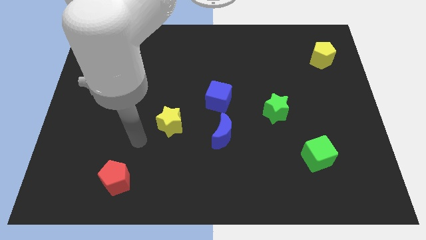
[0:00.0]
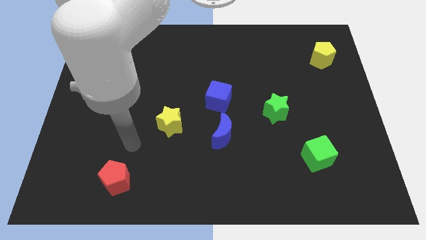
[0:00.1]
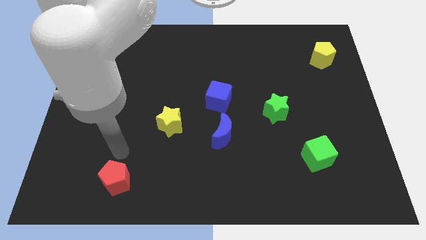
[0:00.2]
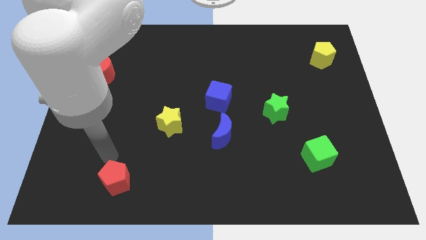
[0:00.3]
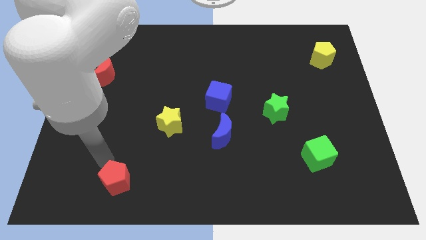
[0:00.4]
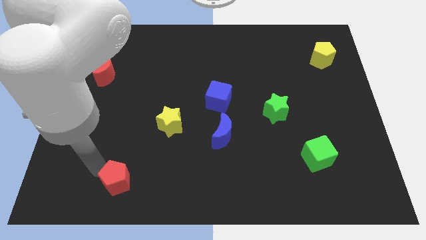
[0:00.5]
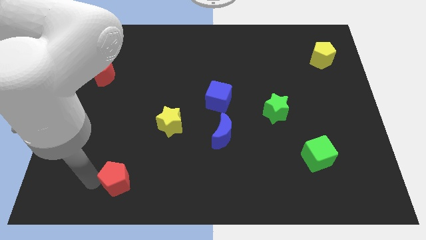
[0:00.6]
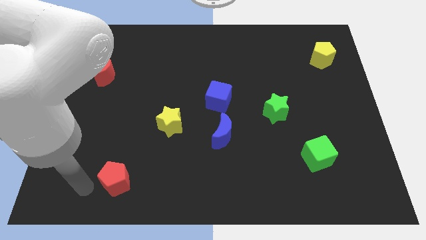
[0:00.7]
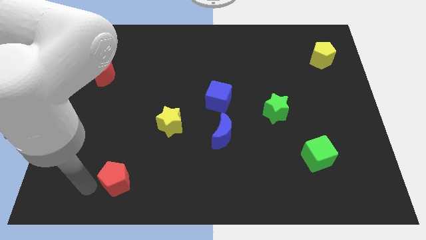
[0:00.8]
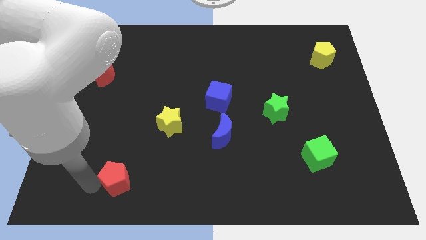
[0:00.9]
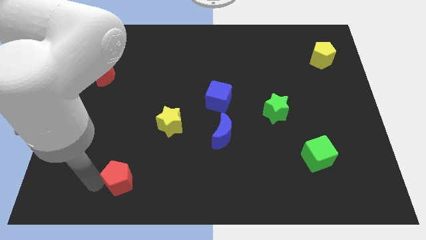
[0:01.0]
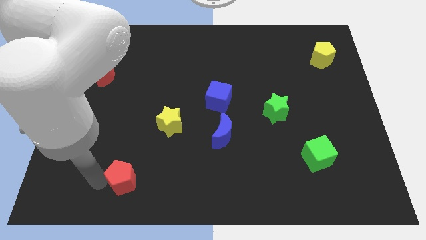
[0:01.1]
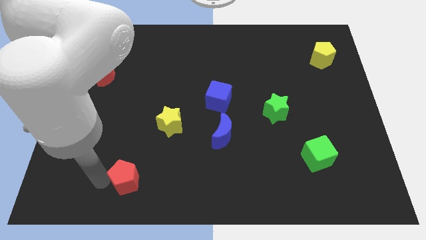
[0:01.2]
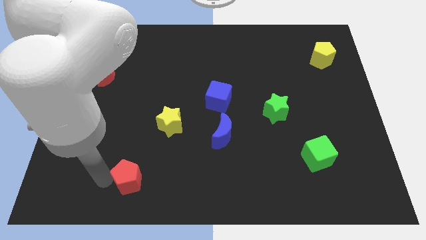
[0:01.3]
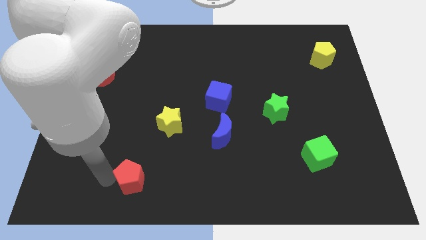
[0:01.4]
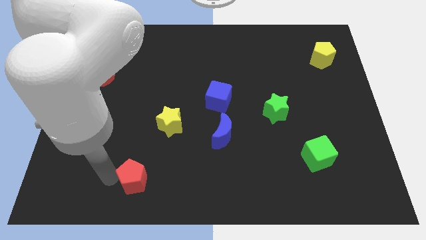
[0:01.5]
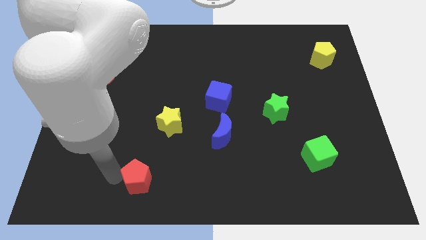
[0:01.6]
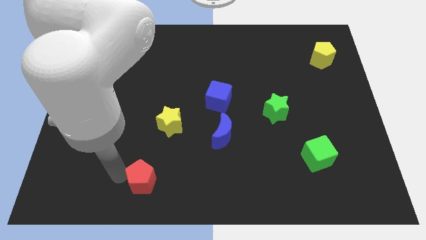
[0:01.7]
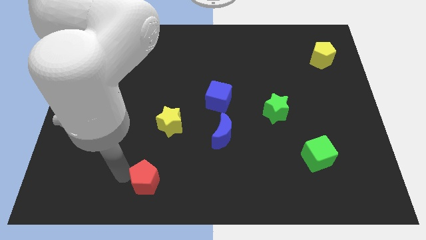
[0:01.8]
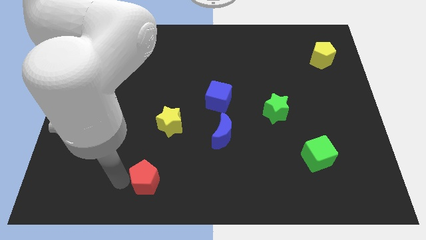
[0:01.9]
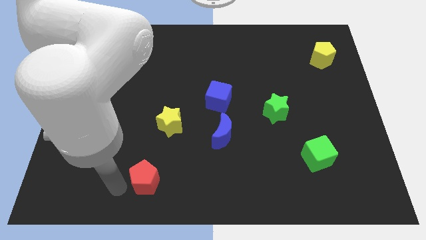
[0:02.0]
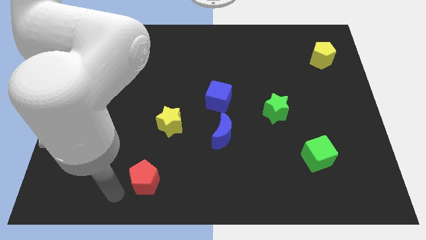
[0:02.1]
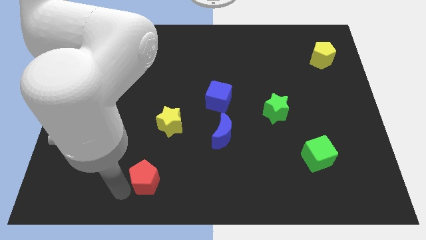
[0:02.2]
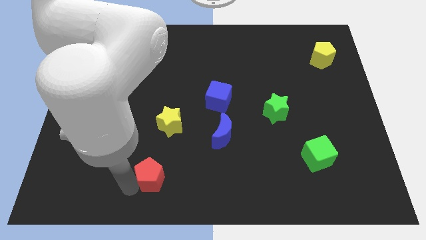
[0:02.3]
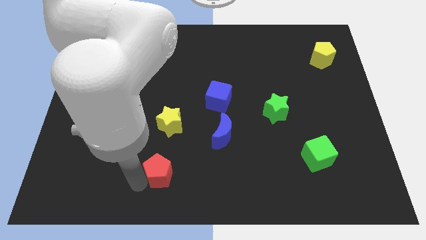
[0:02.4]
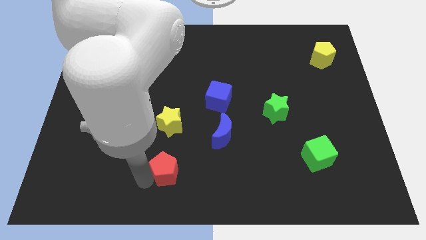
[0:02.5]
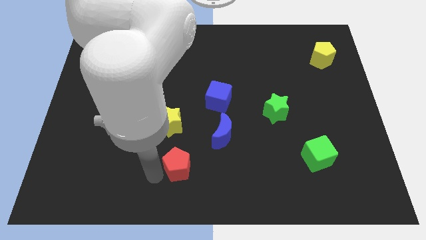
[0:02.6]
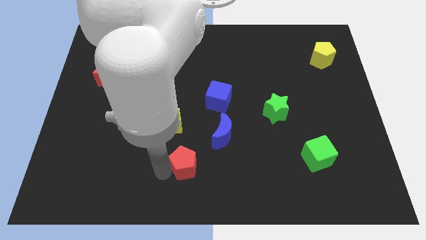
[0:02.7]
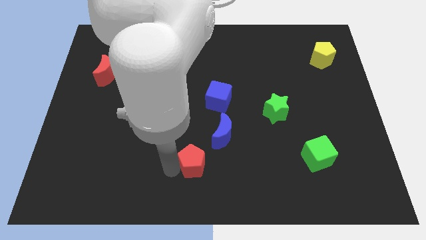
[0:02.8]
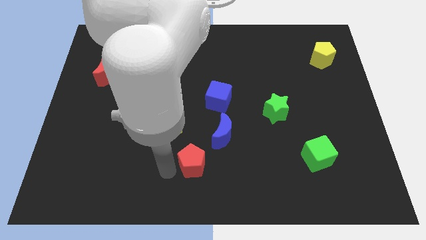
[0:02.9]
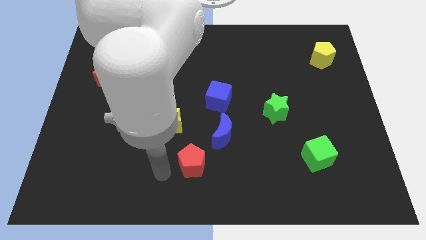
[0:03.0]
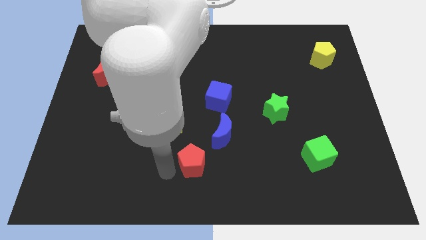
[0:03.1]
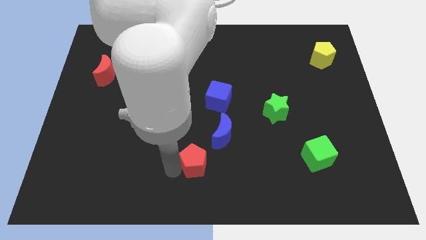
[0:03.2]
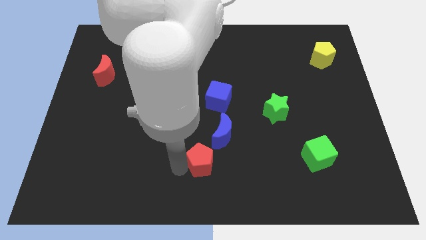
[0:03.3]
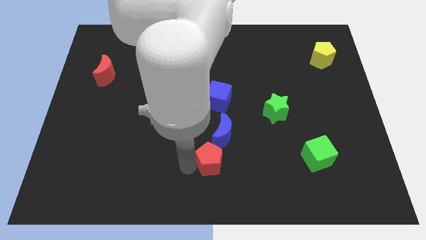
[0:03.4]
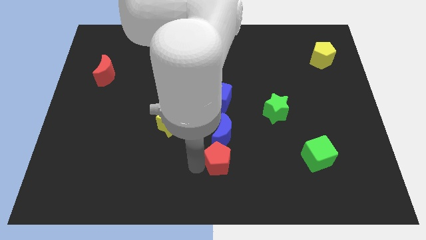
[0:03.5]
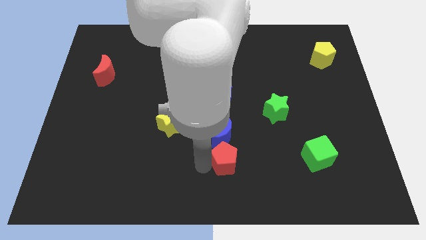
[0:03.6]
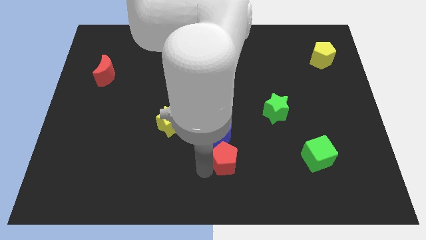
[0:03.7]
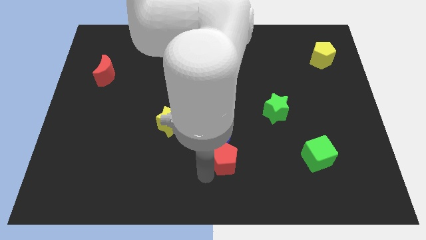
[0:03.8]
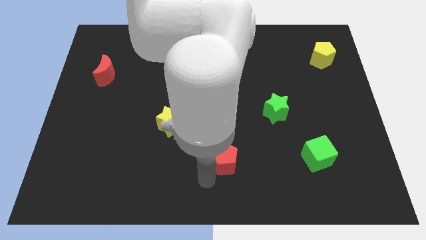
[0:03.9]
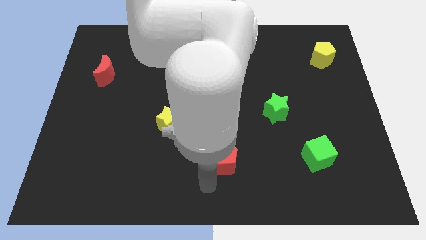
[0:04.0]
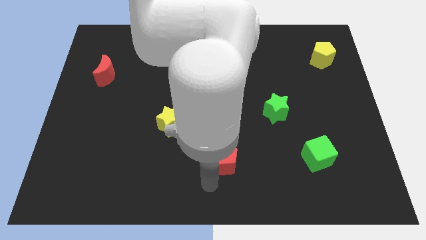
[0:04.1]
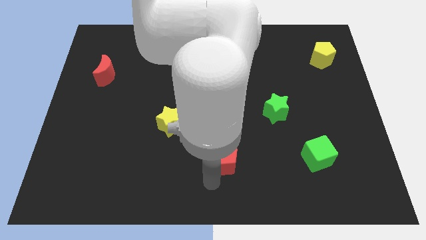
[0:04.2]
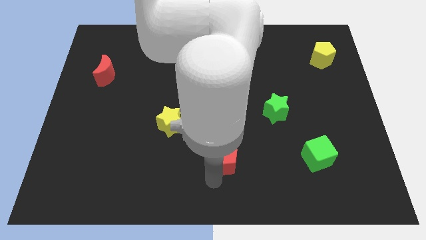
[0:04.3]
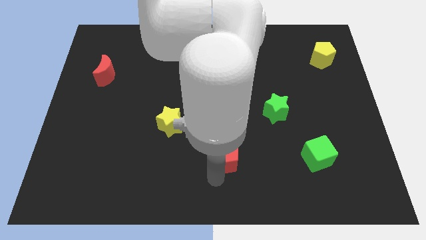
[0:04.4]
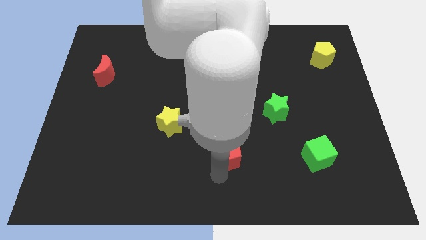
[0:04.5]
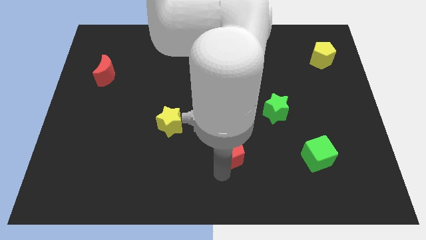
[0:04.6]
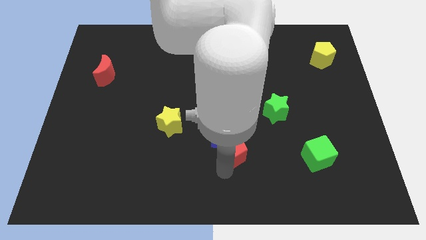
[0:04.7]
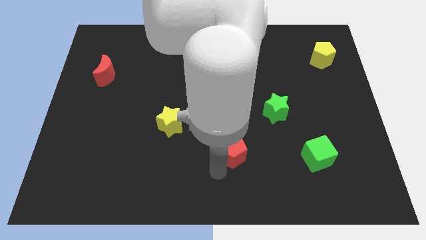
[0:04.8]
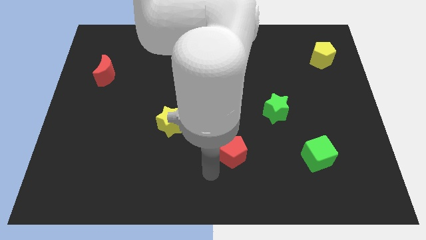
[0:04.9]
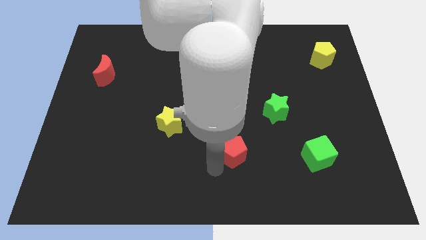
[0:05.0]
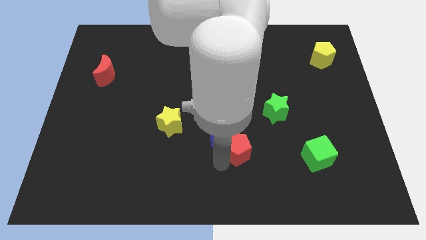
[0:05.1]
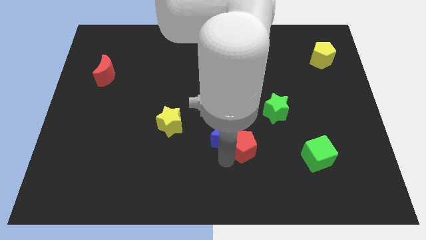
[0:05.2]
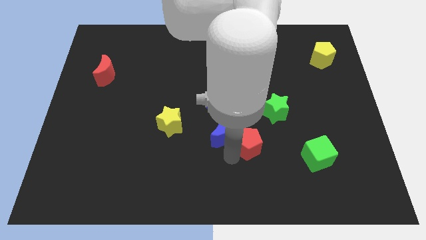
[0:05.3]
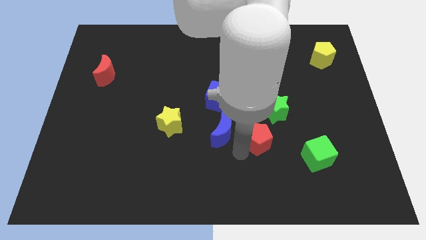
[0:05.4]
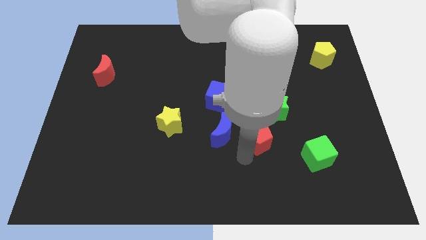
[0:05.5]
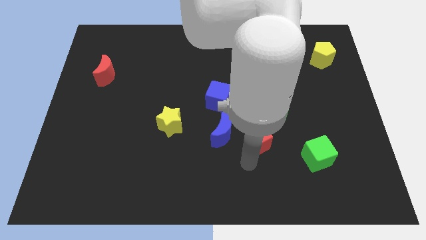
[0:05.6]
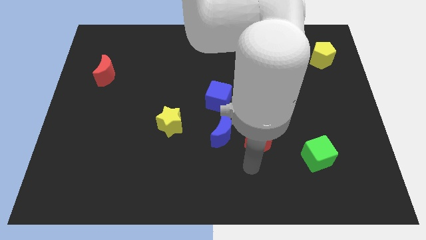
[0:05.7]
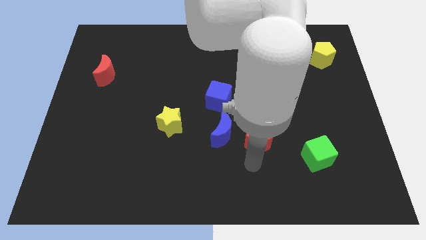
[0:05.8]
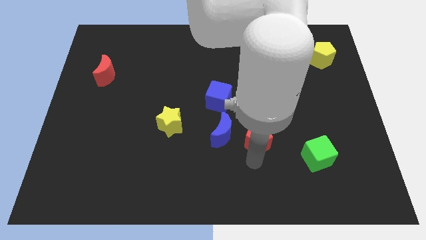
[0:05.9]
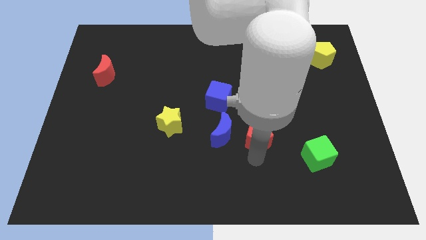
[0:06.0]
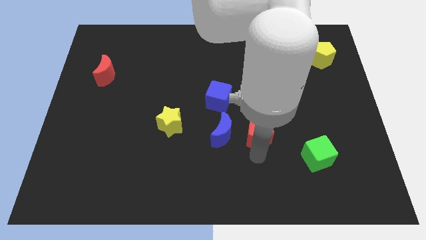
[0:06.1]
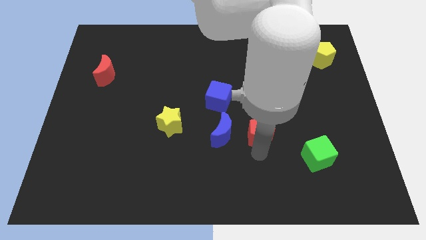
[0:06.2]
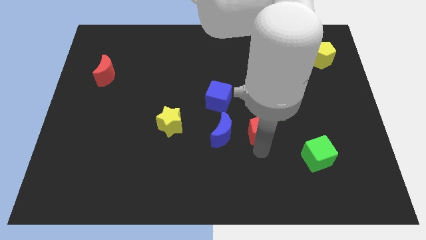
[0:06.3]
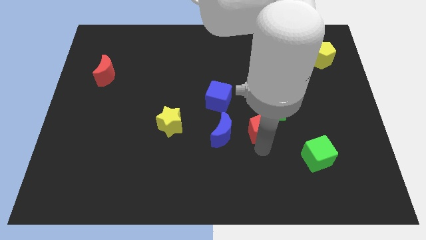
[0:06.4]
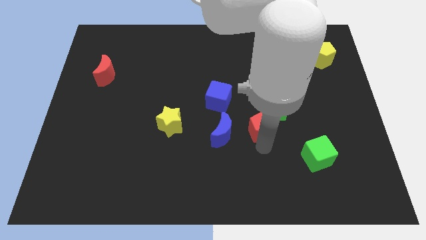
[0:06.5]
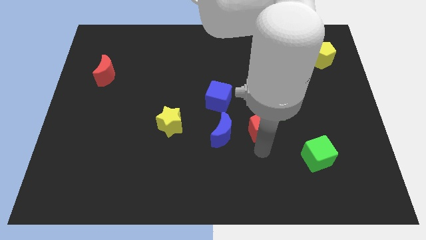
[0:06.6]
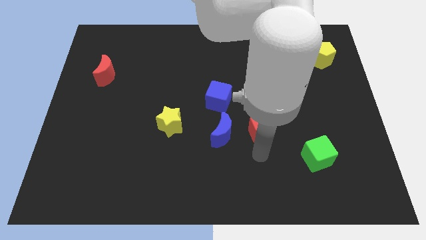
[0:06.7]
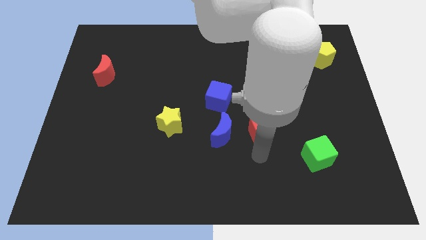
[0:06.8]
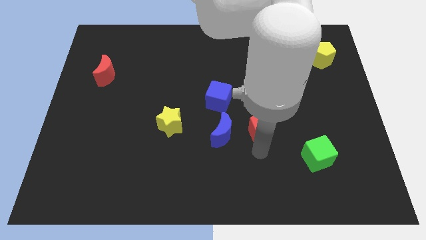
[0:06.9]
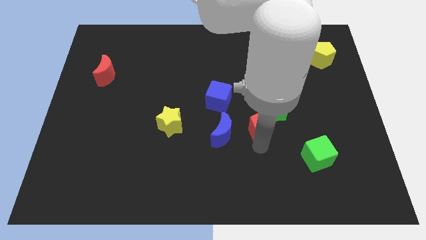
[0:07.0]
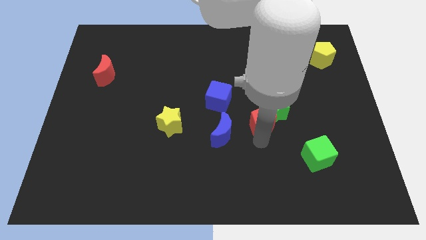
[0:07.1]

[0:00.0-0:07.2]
move the red pentagon close to the green star
